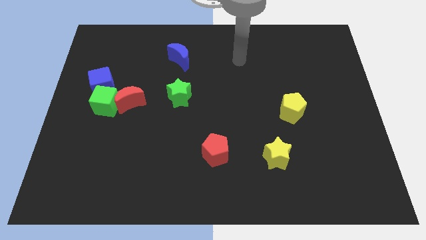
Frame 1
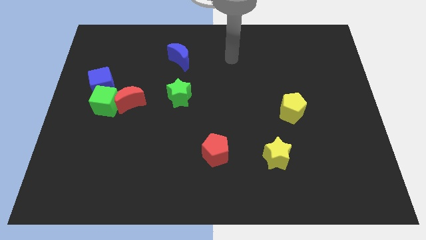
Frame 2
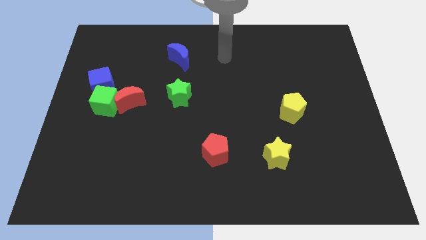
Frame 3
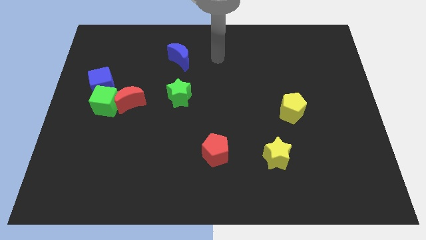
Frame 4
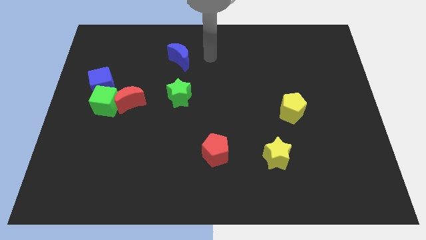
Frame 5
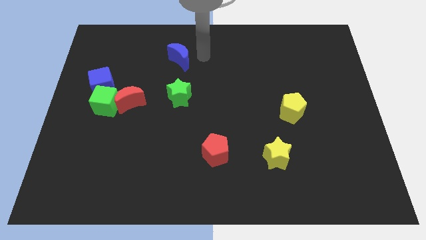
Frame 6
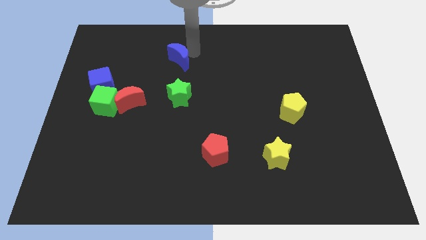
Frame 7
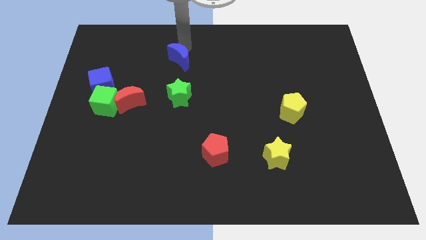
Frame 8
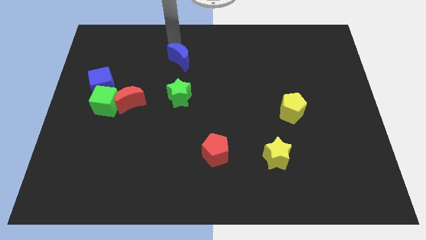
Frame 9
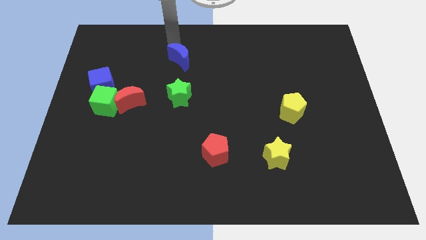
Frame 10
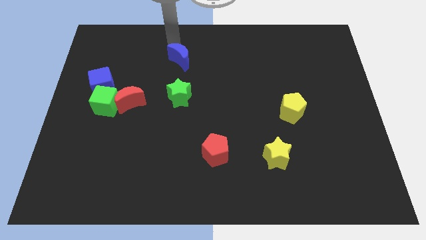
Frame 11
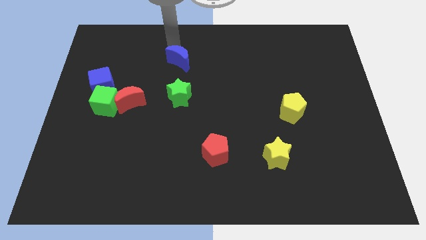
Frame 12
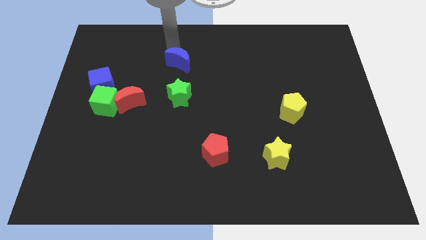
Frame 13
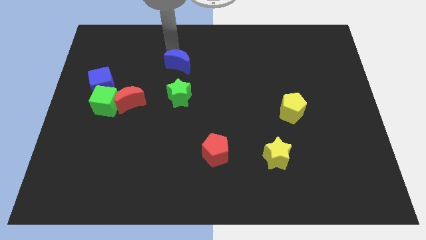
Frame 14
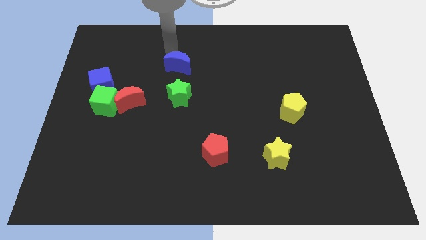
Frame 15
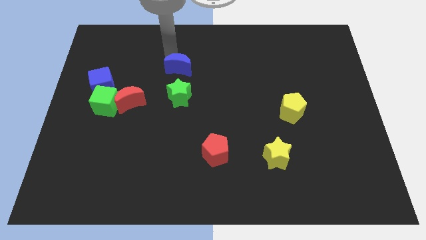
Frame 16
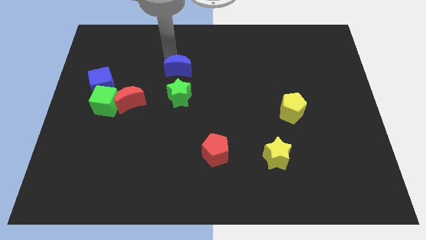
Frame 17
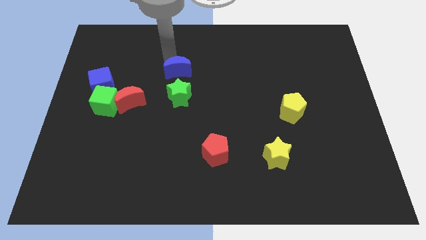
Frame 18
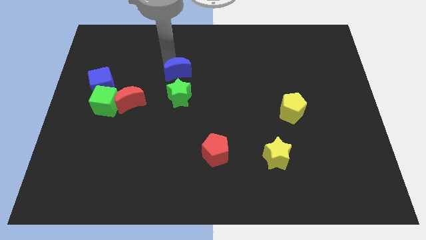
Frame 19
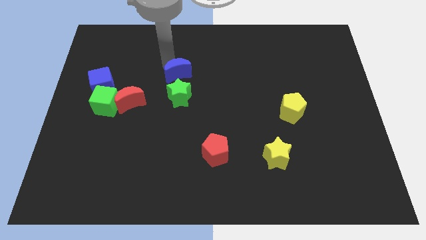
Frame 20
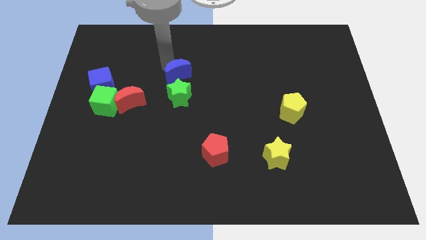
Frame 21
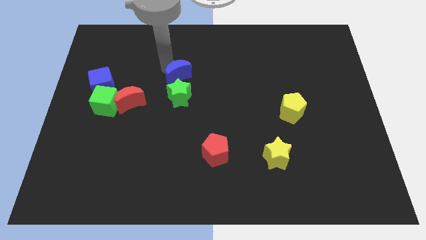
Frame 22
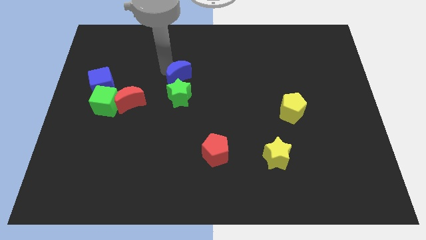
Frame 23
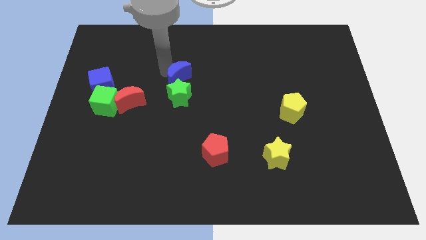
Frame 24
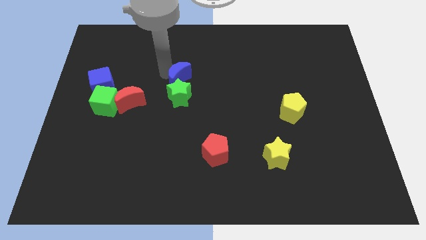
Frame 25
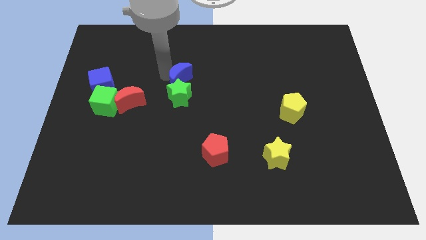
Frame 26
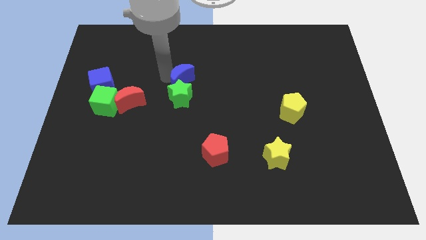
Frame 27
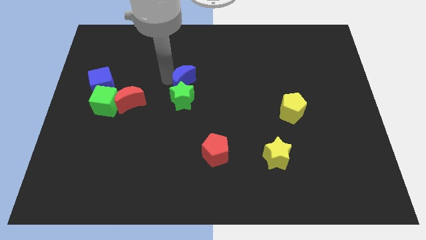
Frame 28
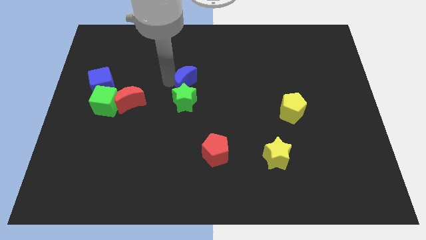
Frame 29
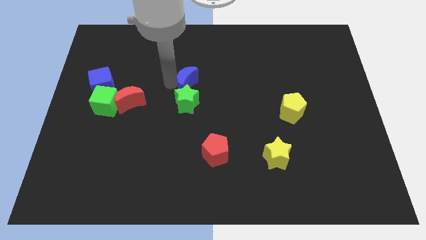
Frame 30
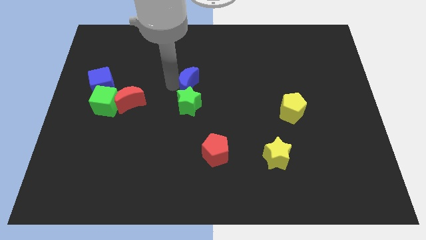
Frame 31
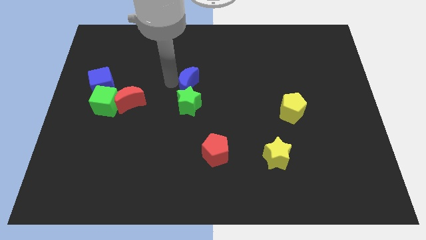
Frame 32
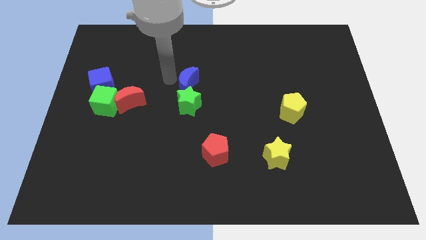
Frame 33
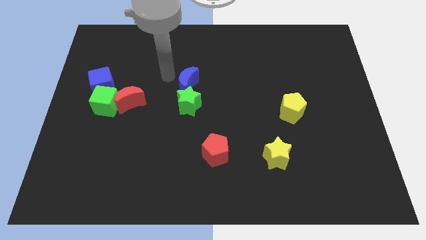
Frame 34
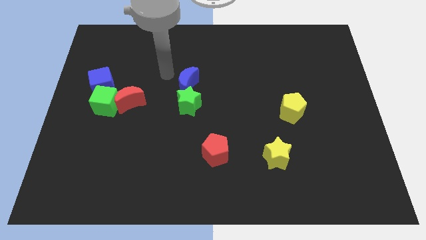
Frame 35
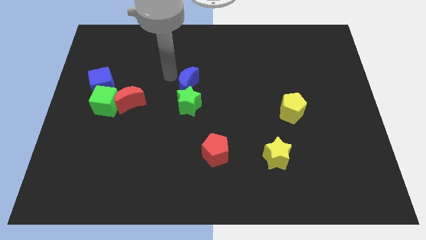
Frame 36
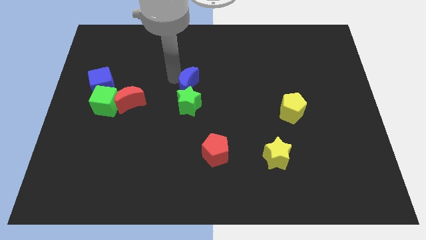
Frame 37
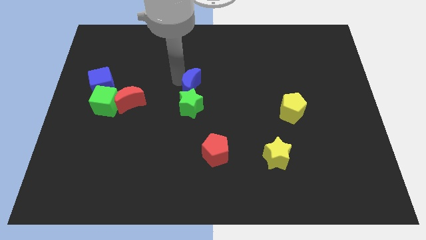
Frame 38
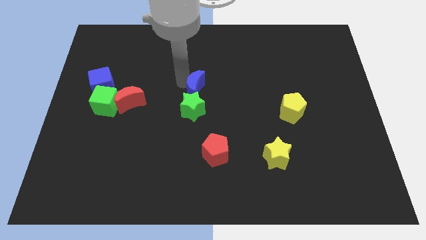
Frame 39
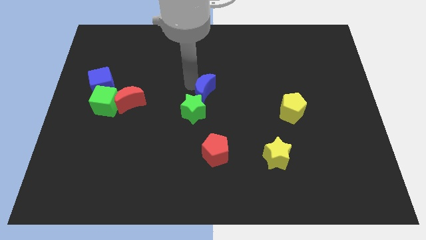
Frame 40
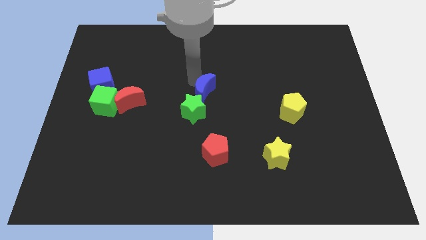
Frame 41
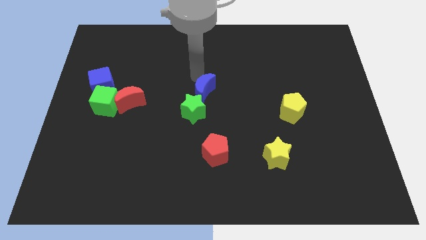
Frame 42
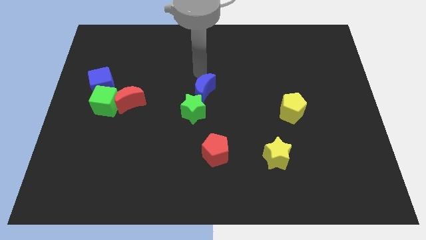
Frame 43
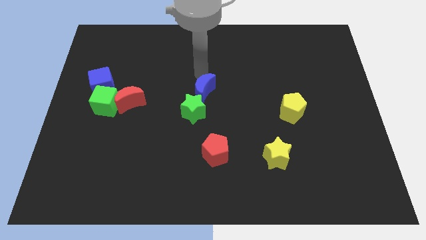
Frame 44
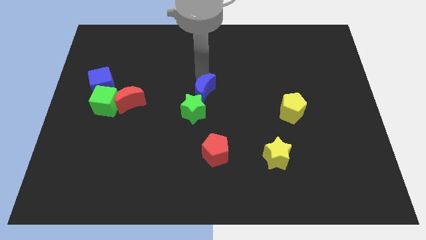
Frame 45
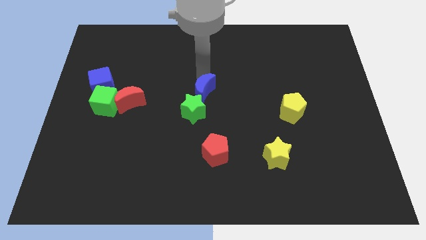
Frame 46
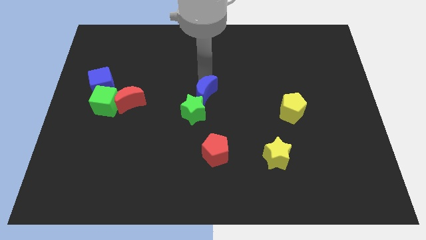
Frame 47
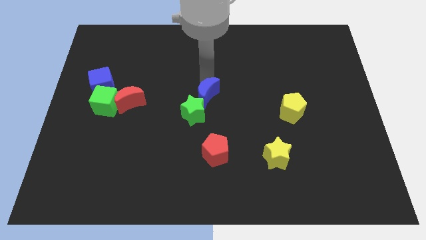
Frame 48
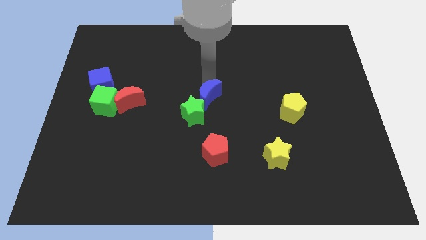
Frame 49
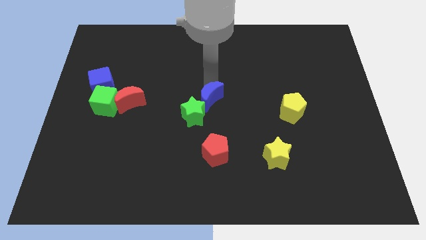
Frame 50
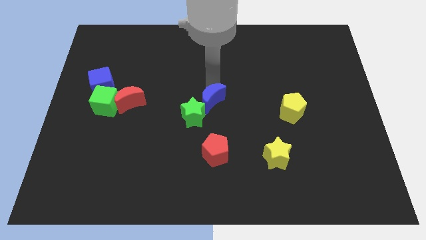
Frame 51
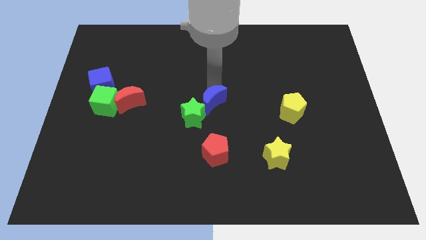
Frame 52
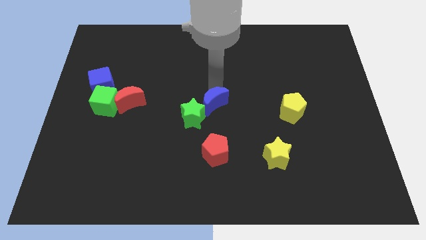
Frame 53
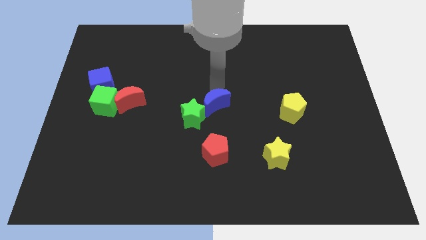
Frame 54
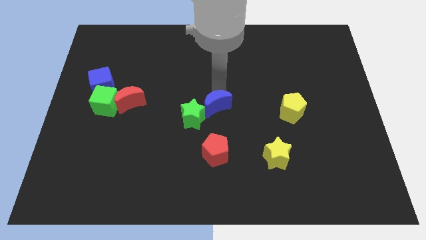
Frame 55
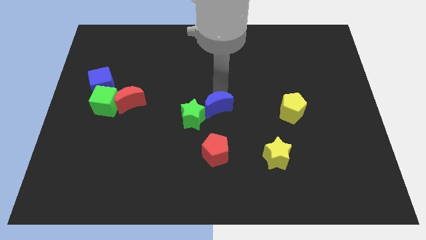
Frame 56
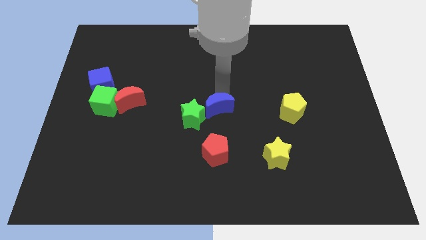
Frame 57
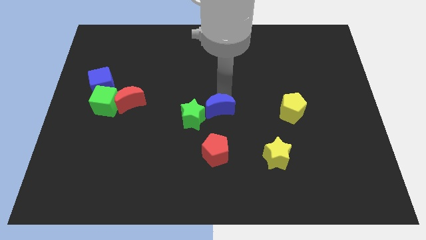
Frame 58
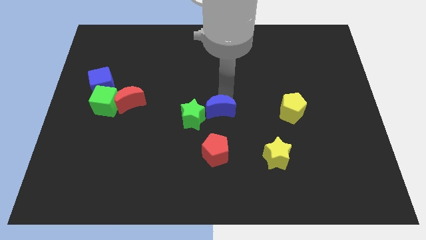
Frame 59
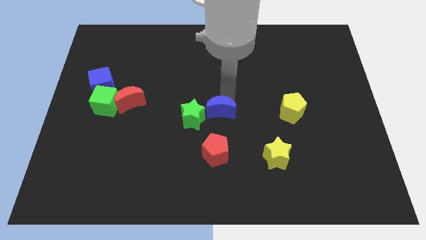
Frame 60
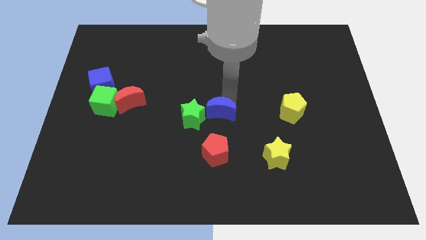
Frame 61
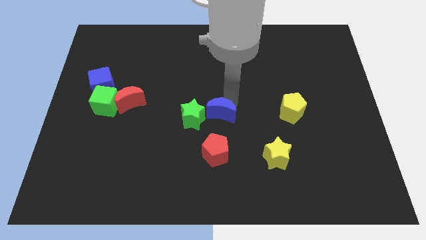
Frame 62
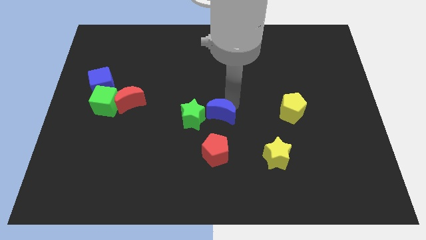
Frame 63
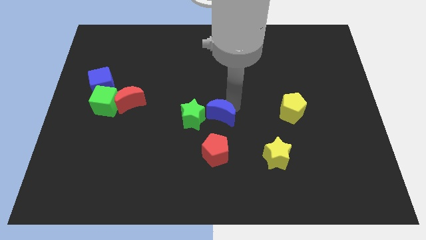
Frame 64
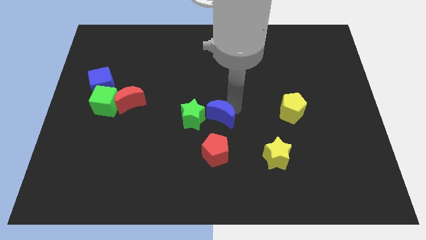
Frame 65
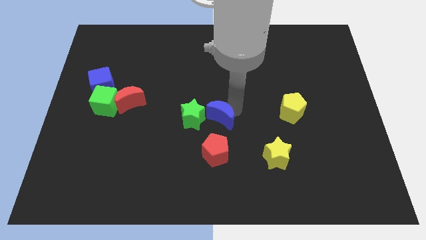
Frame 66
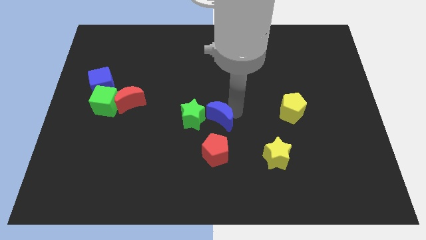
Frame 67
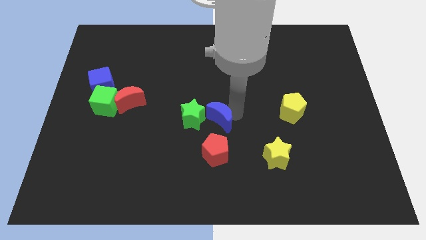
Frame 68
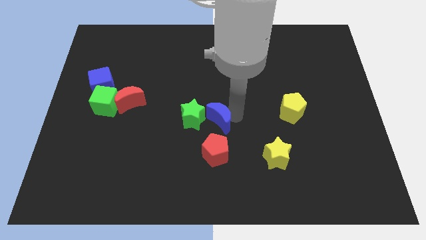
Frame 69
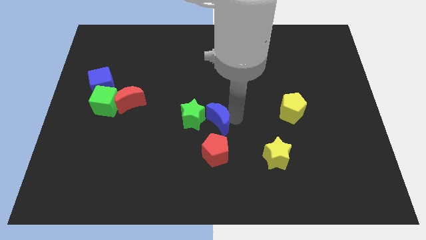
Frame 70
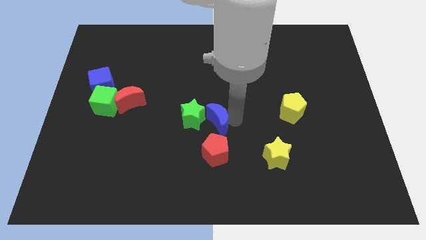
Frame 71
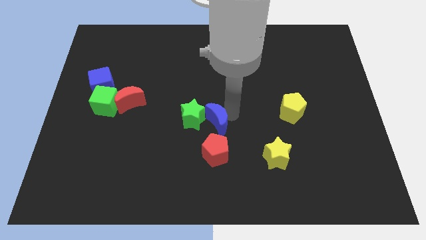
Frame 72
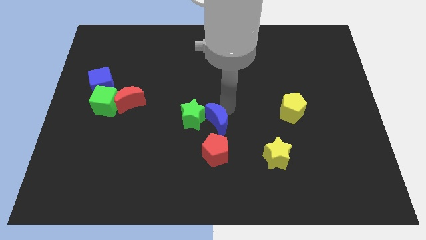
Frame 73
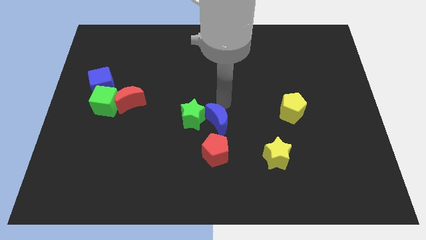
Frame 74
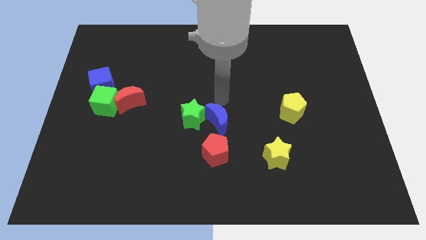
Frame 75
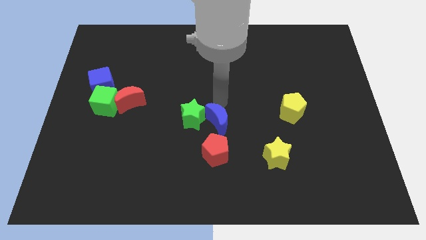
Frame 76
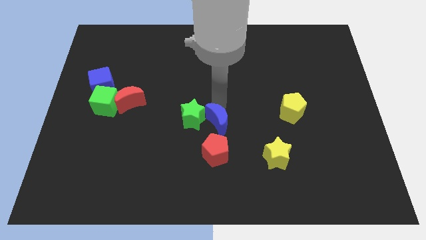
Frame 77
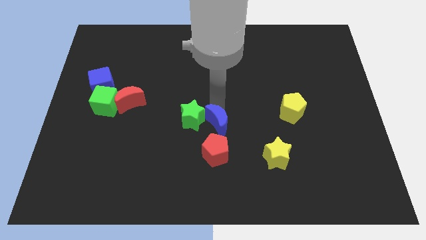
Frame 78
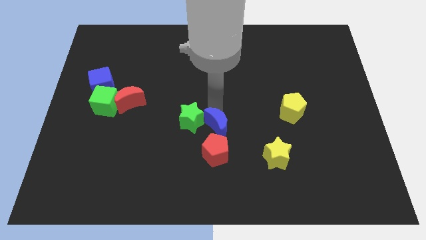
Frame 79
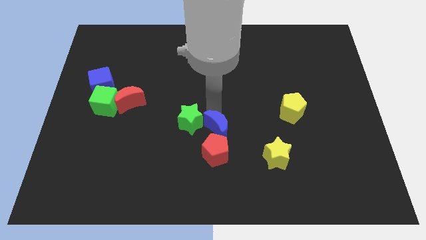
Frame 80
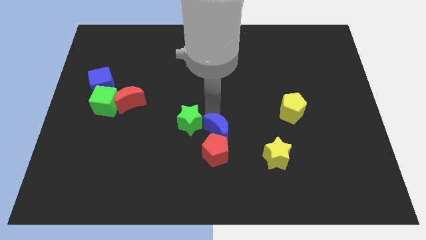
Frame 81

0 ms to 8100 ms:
slide the blue moon towards the red pentagon
